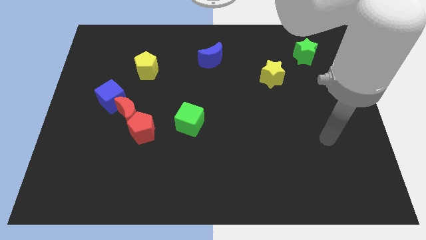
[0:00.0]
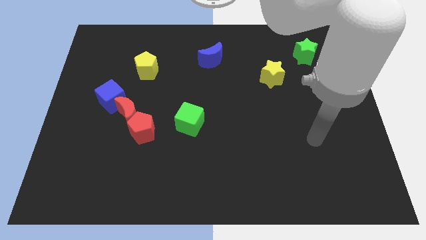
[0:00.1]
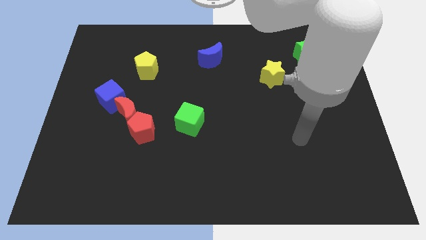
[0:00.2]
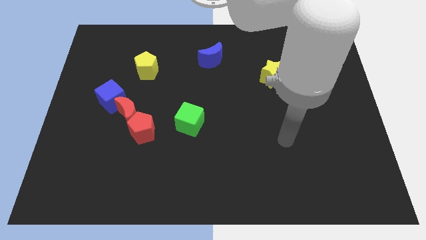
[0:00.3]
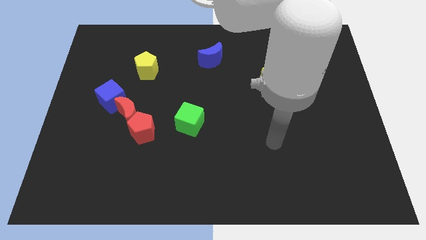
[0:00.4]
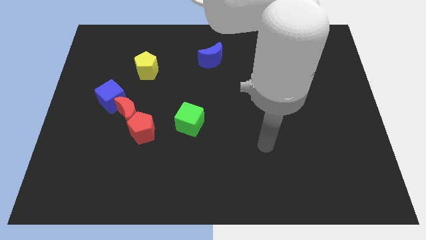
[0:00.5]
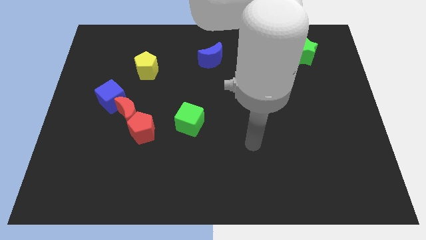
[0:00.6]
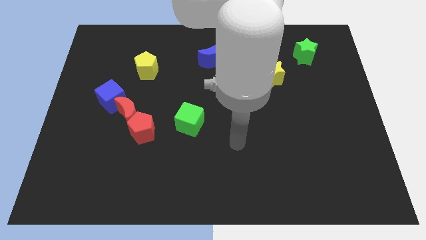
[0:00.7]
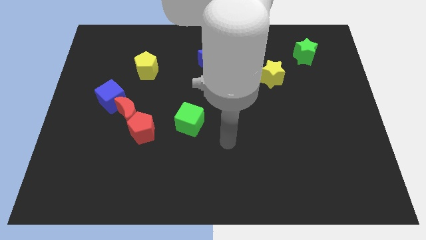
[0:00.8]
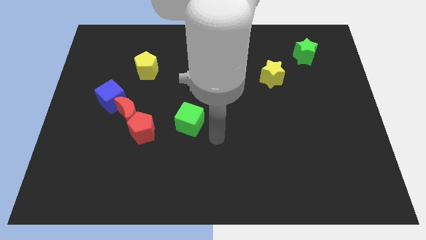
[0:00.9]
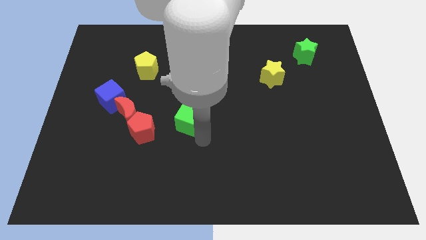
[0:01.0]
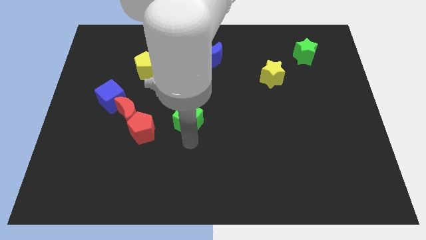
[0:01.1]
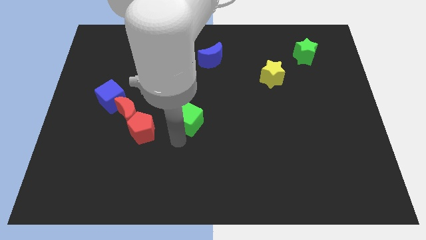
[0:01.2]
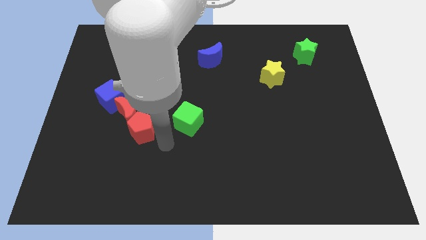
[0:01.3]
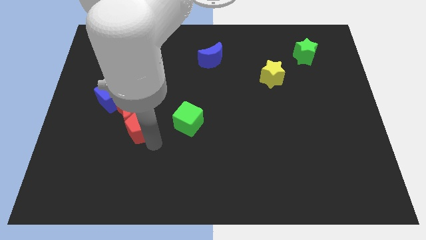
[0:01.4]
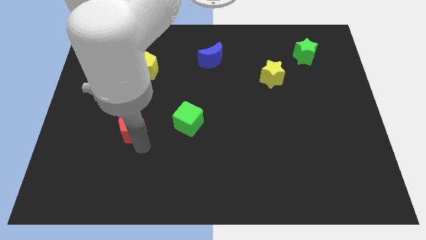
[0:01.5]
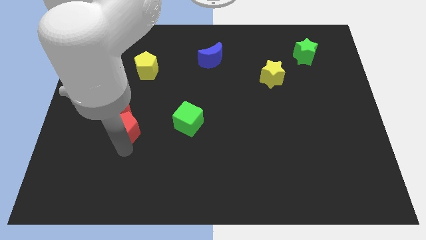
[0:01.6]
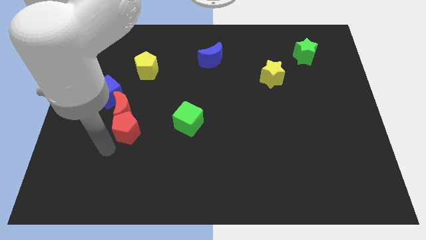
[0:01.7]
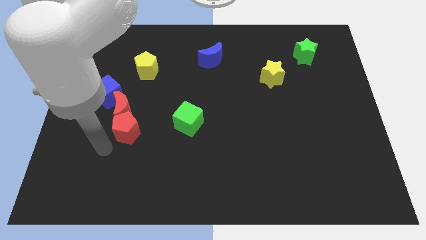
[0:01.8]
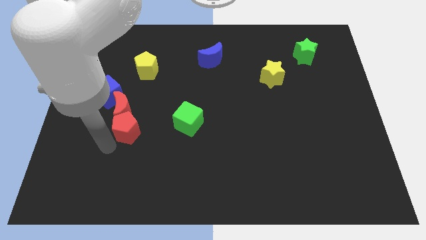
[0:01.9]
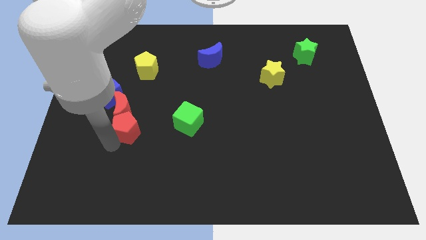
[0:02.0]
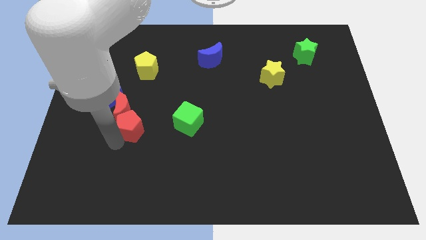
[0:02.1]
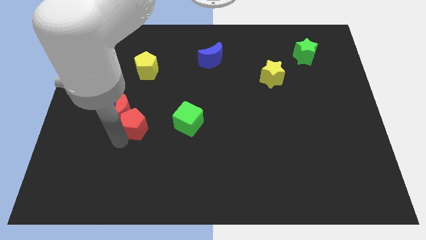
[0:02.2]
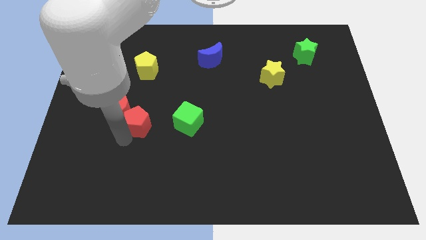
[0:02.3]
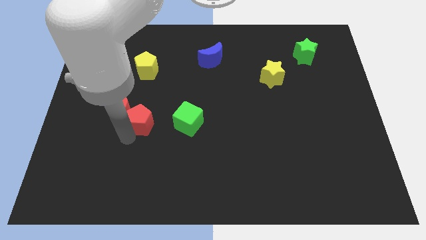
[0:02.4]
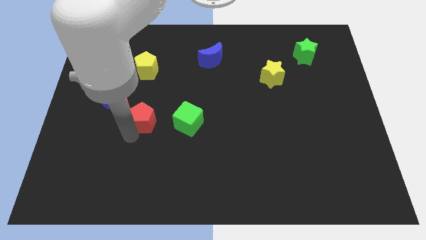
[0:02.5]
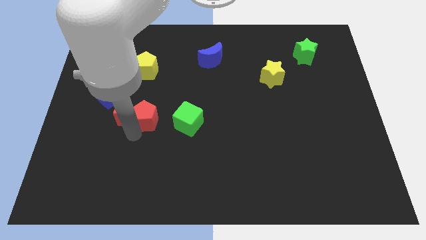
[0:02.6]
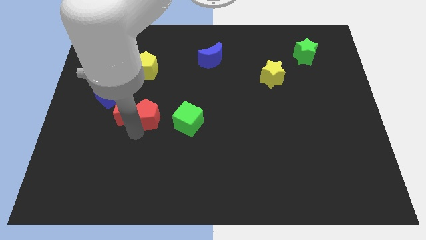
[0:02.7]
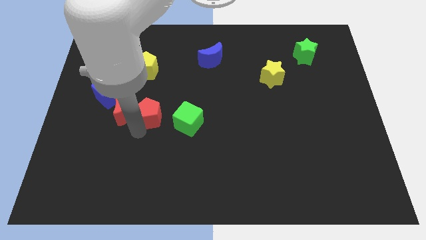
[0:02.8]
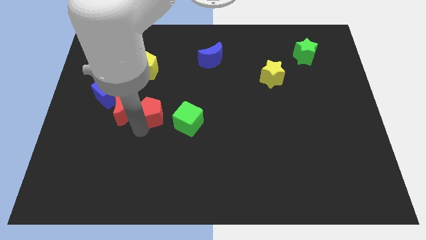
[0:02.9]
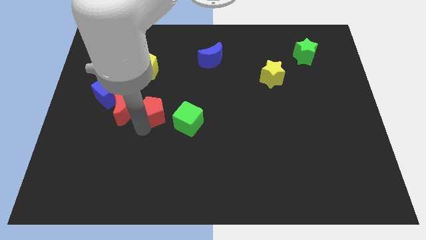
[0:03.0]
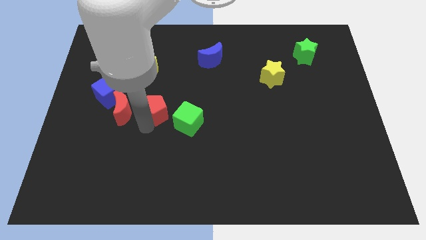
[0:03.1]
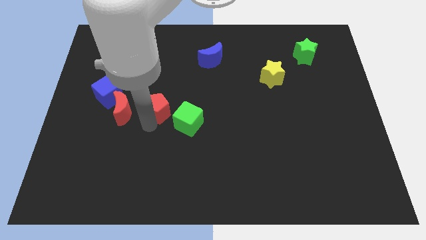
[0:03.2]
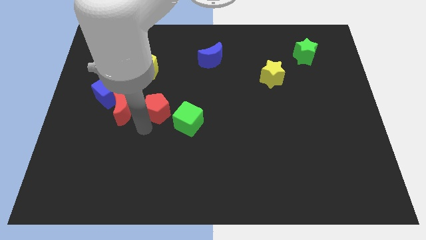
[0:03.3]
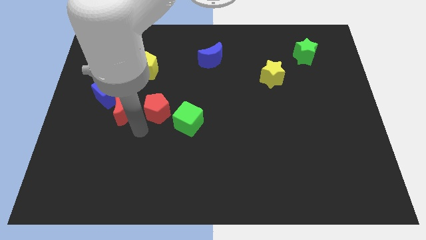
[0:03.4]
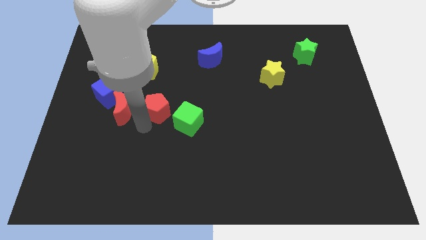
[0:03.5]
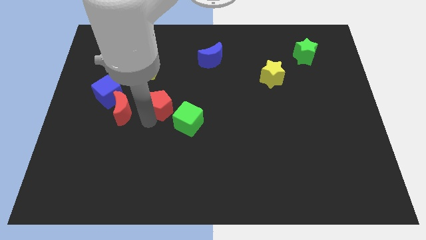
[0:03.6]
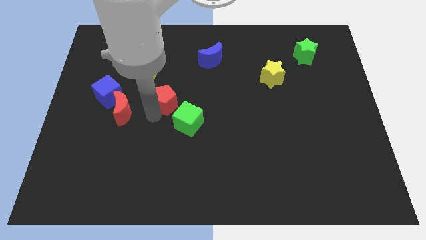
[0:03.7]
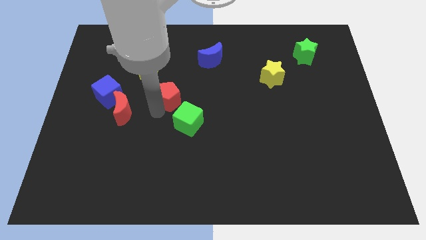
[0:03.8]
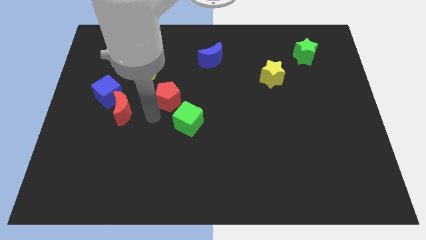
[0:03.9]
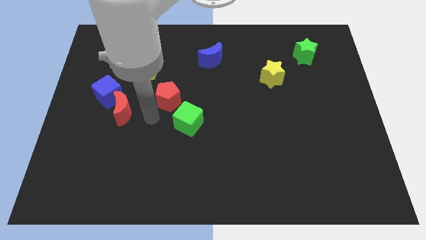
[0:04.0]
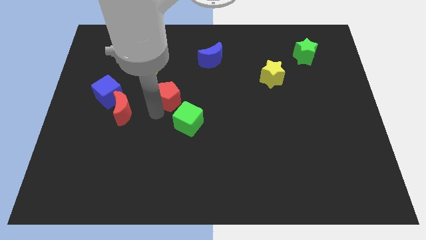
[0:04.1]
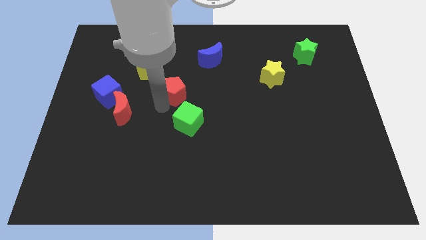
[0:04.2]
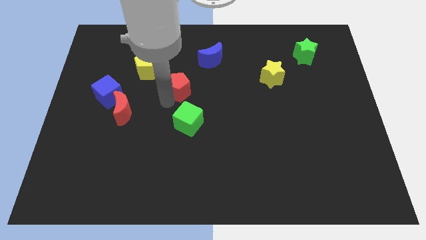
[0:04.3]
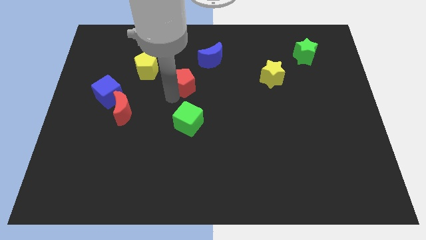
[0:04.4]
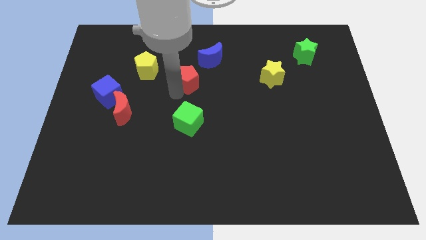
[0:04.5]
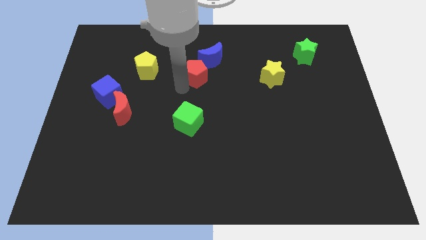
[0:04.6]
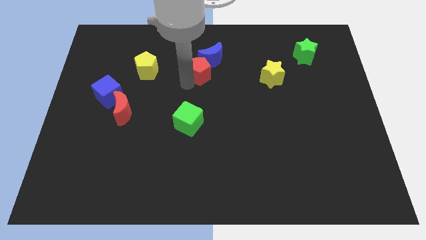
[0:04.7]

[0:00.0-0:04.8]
slide the red pentagon close to the blue moon

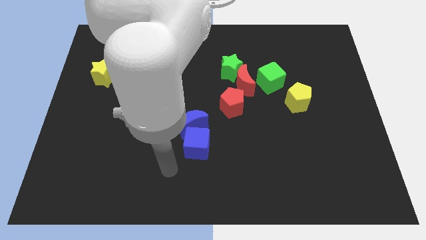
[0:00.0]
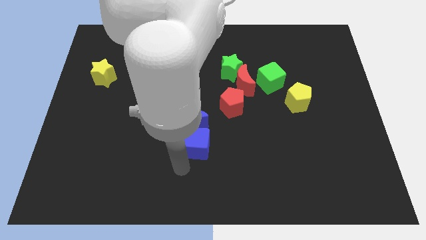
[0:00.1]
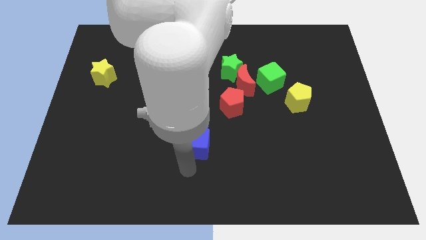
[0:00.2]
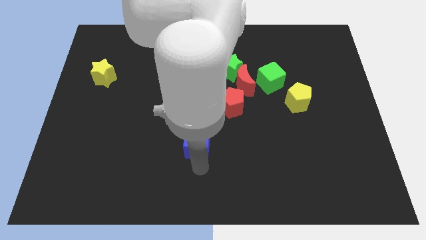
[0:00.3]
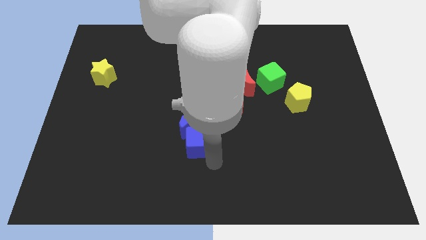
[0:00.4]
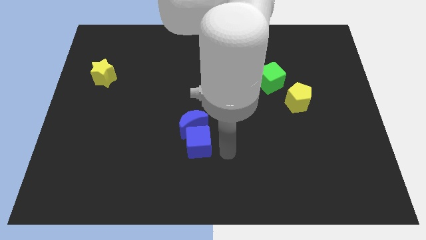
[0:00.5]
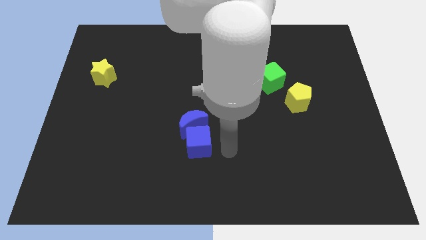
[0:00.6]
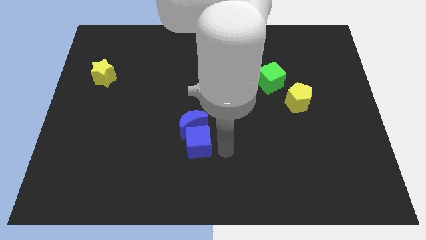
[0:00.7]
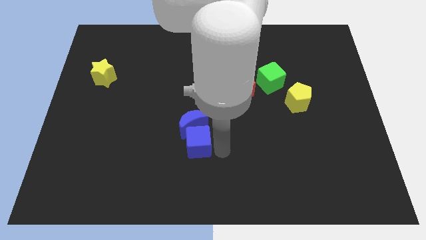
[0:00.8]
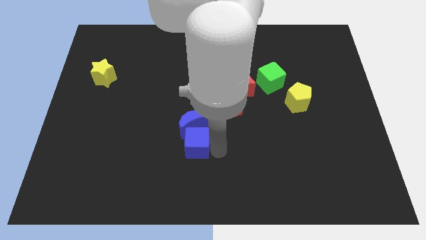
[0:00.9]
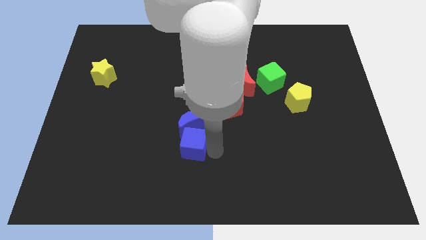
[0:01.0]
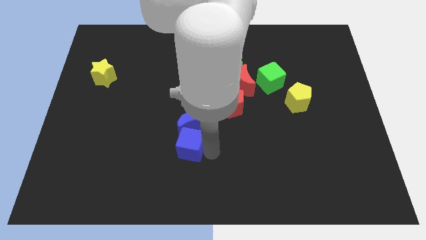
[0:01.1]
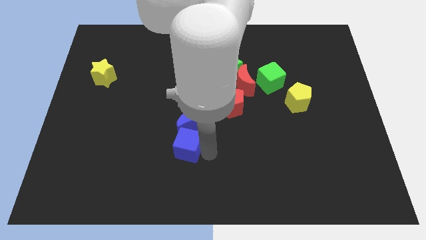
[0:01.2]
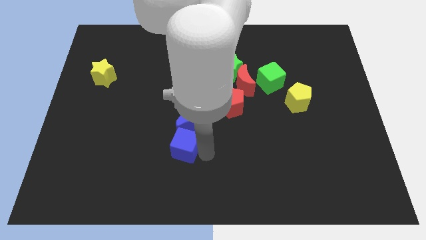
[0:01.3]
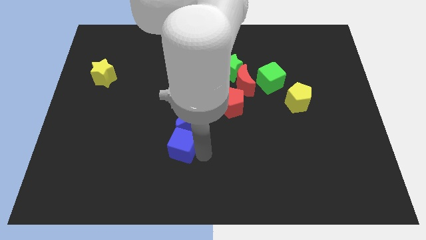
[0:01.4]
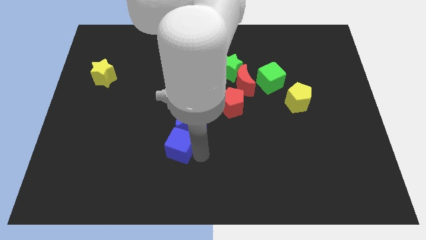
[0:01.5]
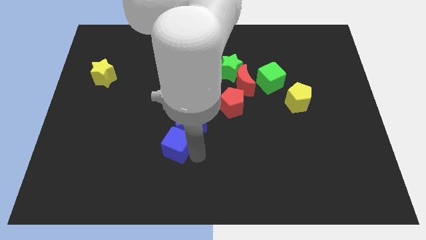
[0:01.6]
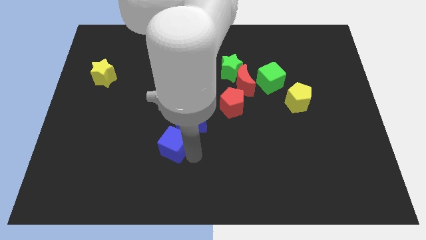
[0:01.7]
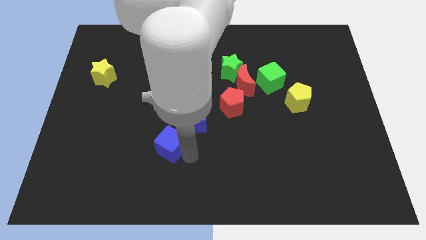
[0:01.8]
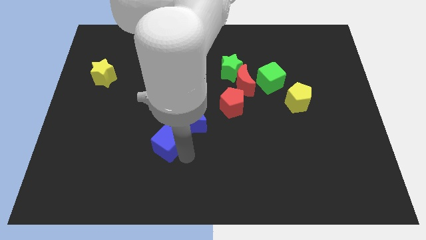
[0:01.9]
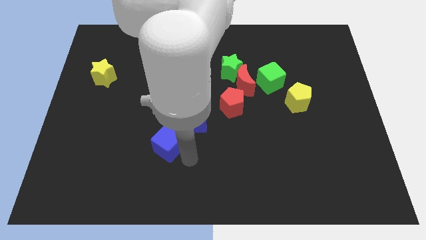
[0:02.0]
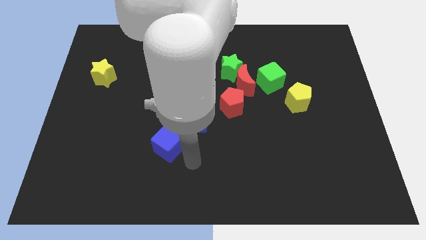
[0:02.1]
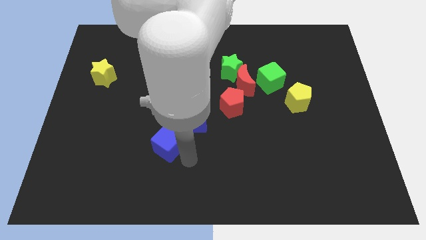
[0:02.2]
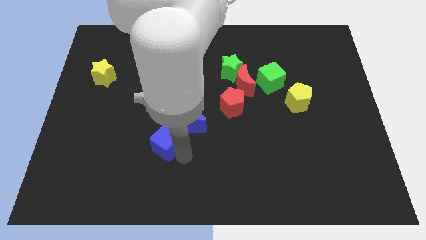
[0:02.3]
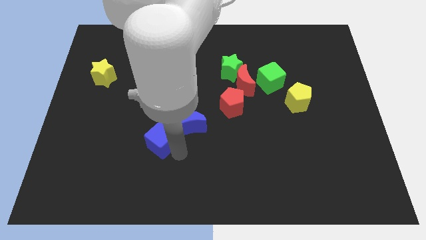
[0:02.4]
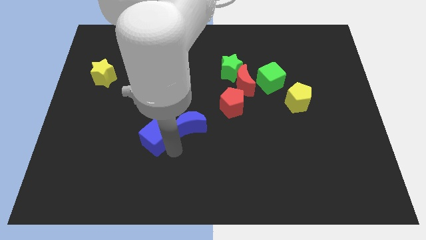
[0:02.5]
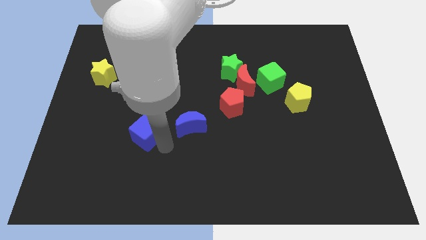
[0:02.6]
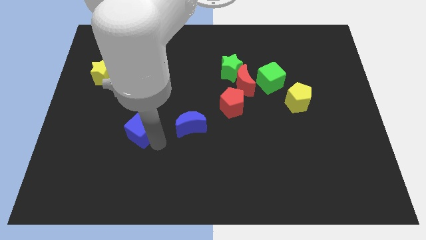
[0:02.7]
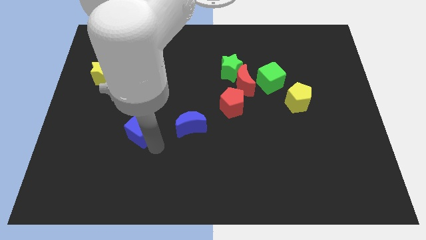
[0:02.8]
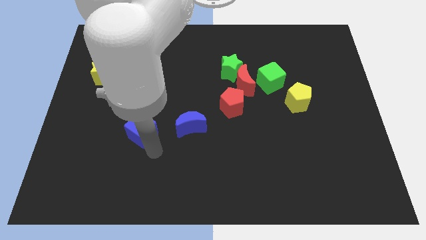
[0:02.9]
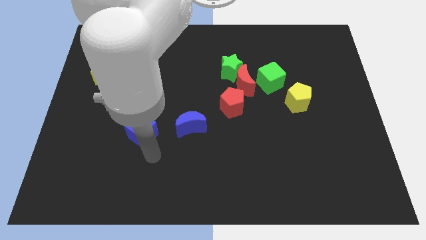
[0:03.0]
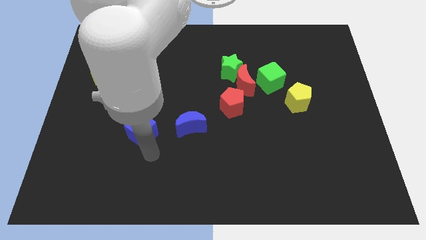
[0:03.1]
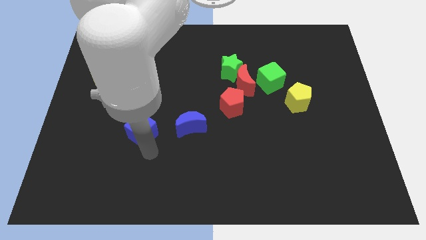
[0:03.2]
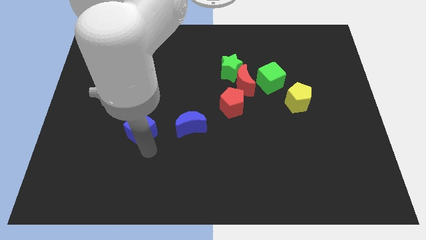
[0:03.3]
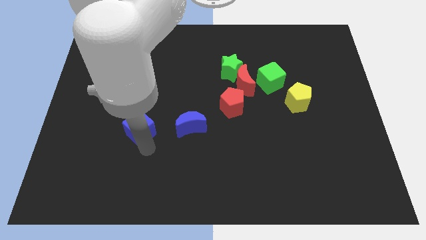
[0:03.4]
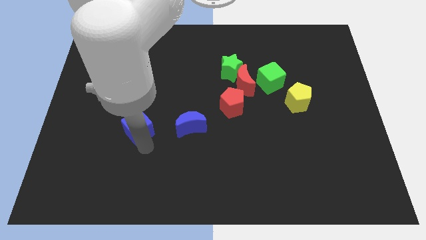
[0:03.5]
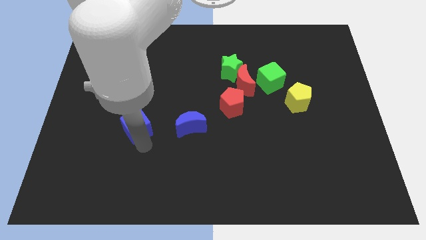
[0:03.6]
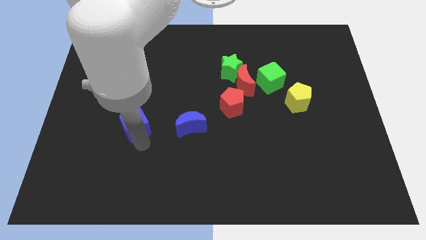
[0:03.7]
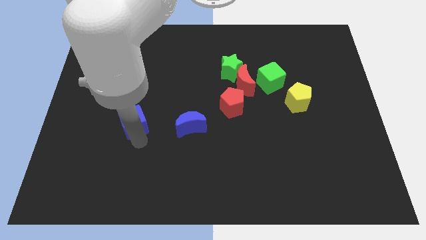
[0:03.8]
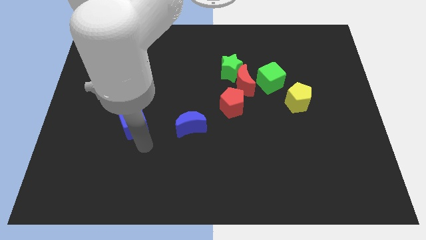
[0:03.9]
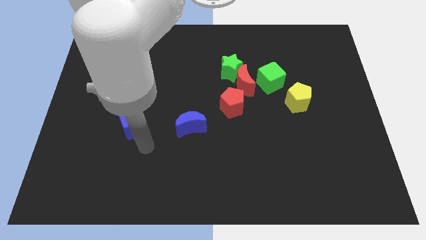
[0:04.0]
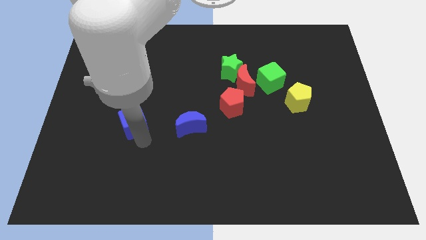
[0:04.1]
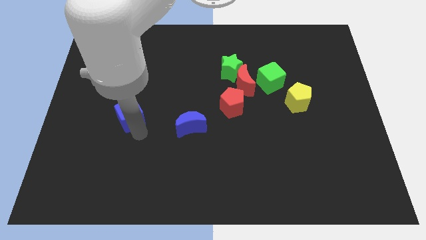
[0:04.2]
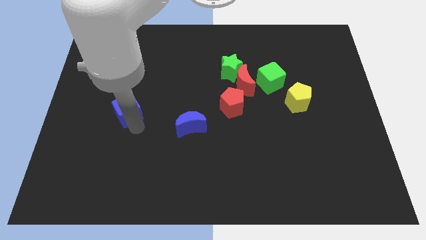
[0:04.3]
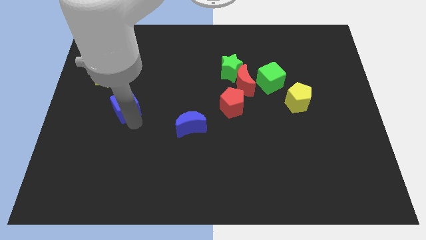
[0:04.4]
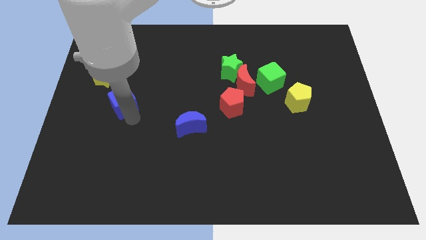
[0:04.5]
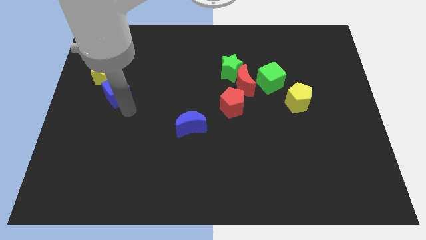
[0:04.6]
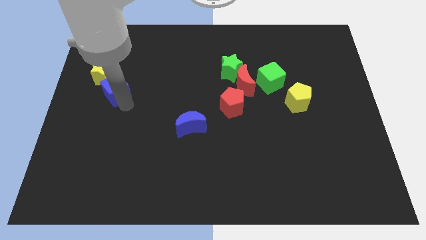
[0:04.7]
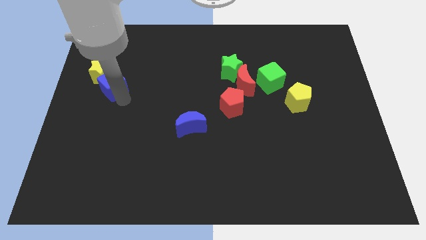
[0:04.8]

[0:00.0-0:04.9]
put the blue cube to the yellow star
